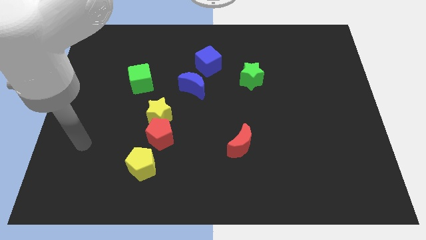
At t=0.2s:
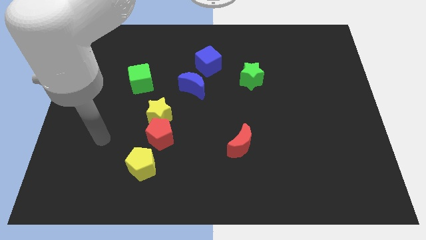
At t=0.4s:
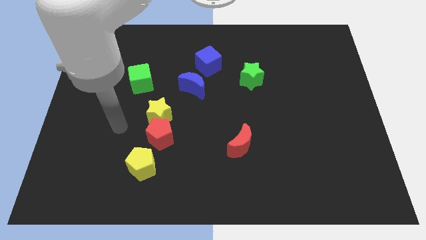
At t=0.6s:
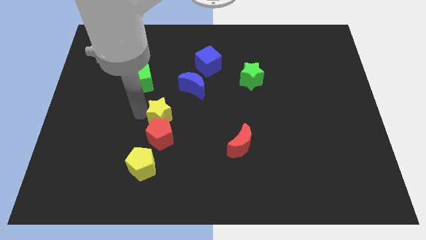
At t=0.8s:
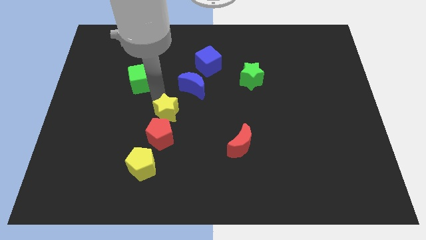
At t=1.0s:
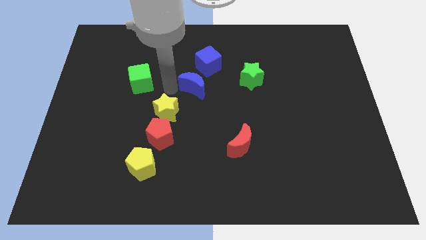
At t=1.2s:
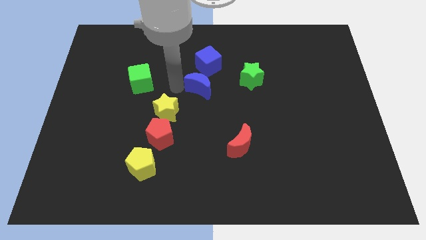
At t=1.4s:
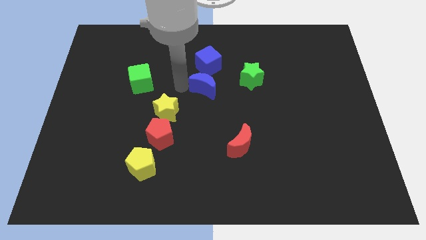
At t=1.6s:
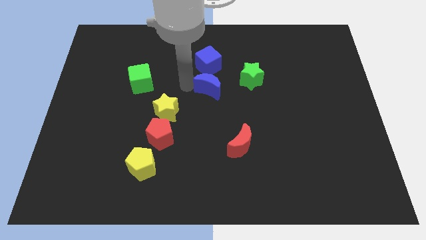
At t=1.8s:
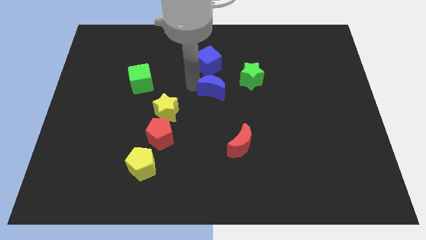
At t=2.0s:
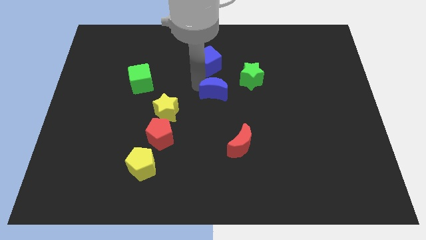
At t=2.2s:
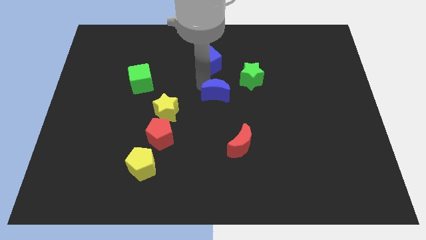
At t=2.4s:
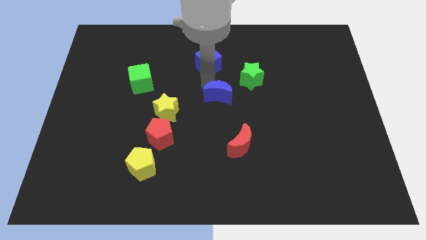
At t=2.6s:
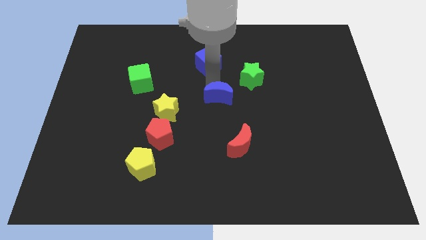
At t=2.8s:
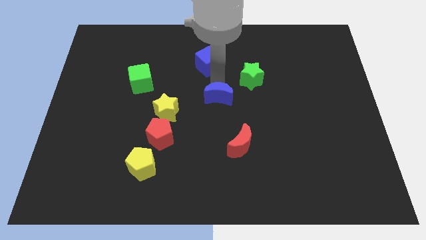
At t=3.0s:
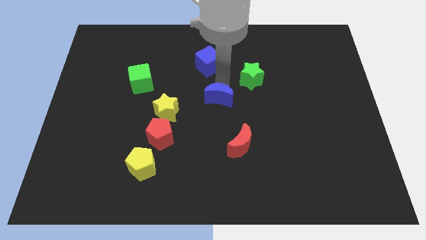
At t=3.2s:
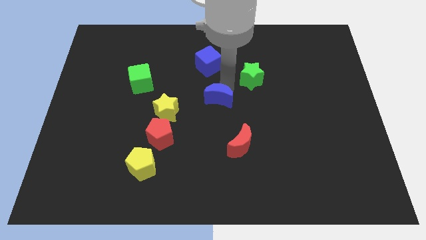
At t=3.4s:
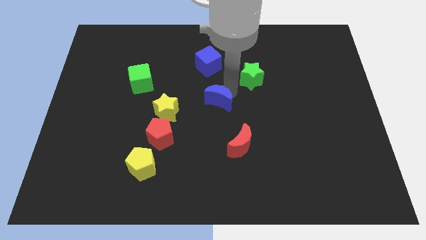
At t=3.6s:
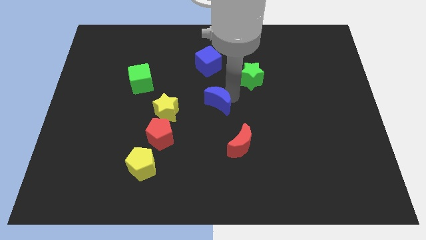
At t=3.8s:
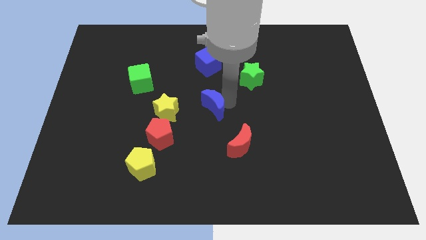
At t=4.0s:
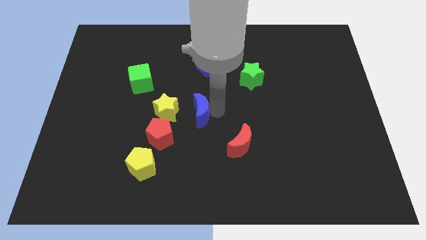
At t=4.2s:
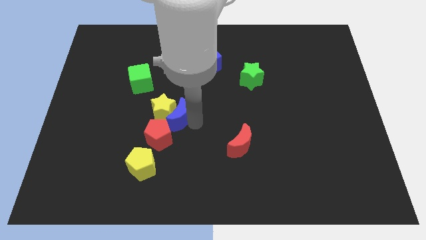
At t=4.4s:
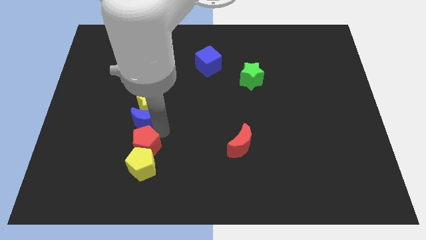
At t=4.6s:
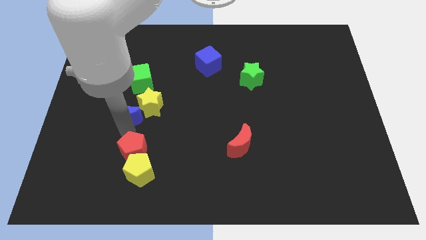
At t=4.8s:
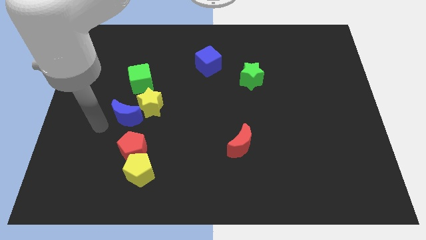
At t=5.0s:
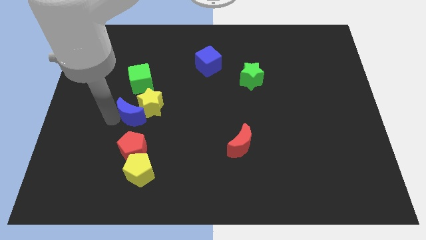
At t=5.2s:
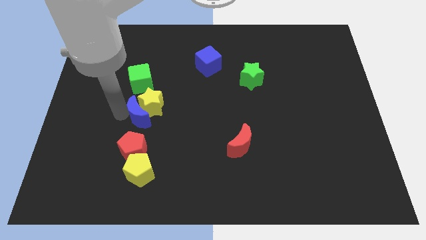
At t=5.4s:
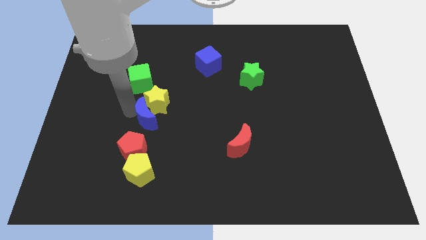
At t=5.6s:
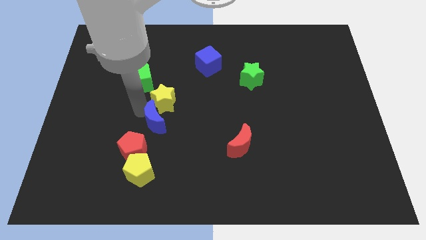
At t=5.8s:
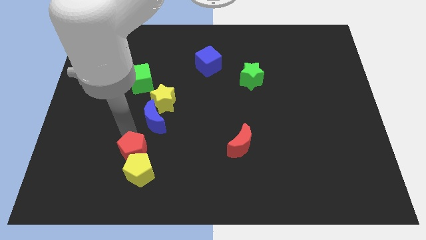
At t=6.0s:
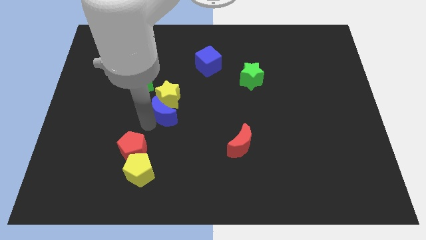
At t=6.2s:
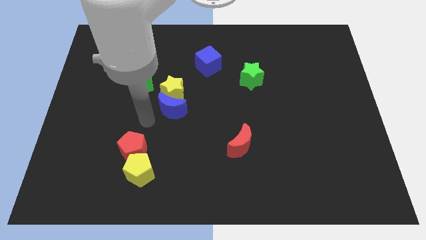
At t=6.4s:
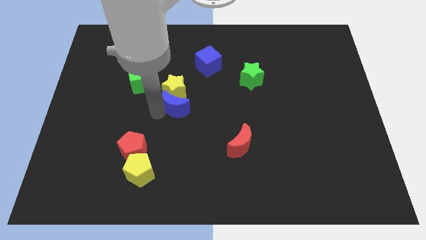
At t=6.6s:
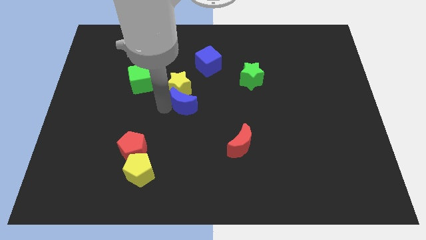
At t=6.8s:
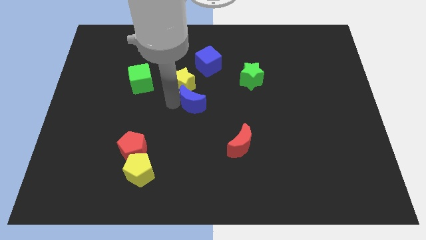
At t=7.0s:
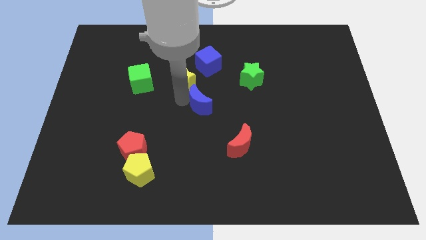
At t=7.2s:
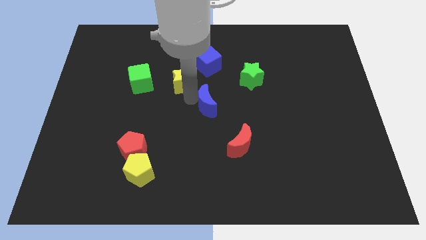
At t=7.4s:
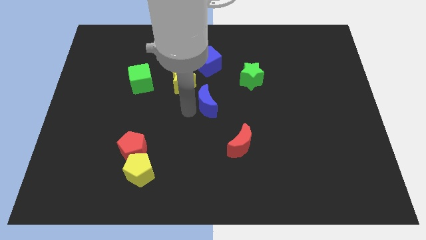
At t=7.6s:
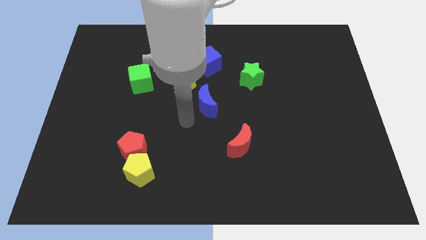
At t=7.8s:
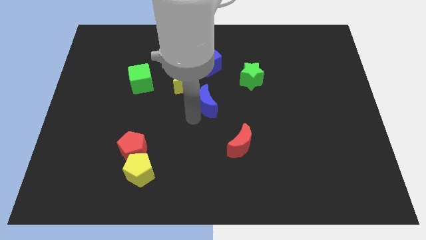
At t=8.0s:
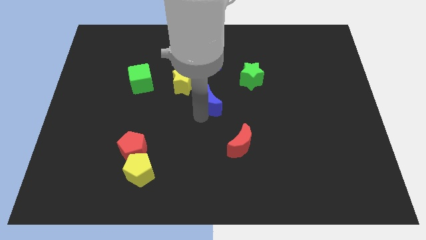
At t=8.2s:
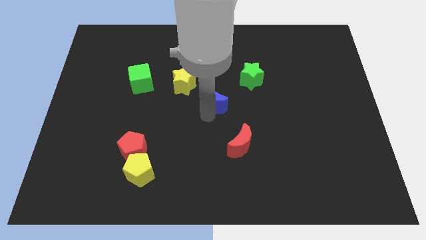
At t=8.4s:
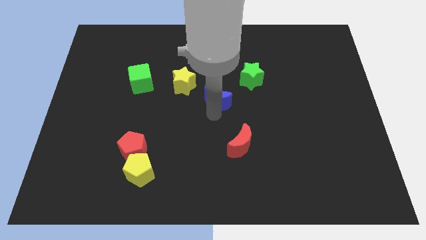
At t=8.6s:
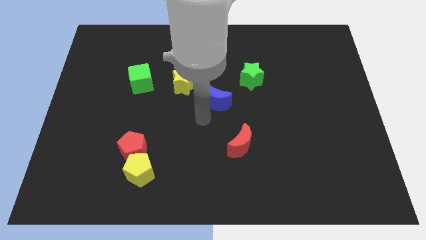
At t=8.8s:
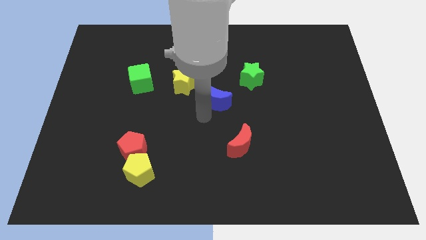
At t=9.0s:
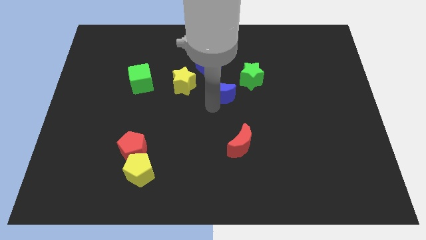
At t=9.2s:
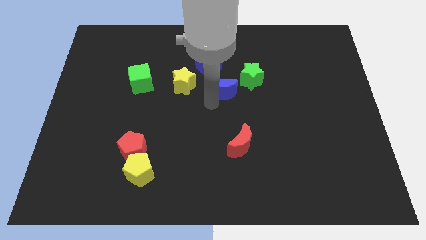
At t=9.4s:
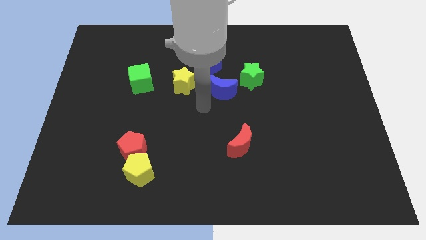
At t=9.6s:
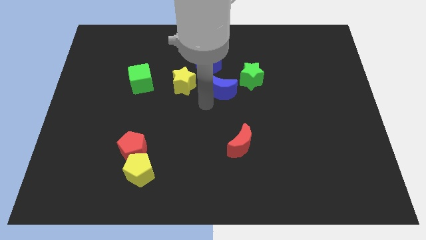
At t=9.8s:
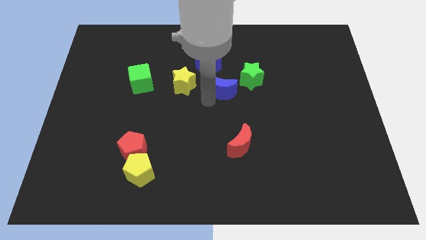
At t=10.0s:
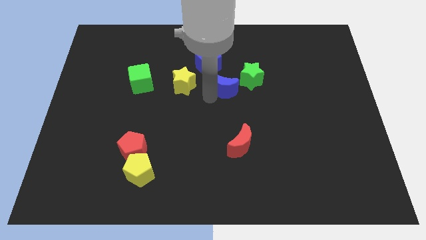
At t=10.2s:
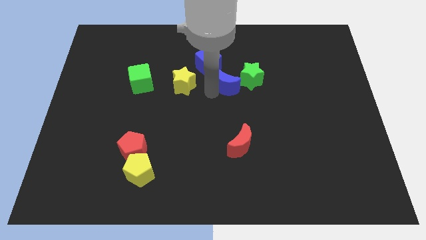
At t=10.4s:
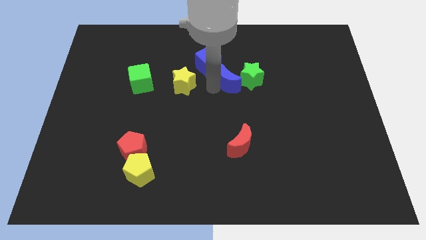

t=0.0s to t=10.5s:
put the blue moon next to the green star

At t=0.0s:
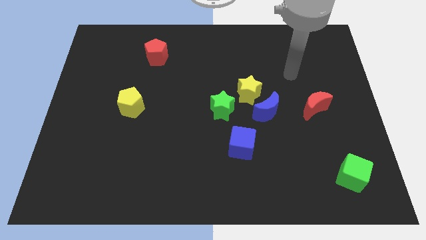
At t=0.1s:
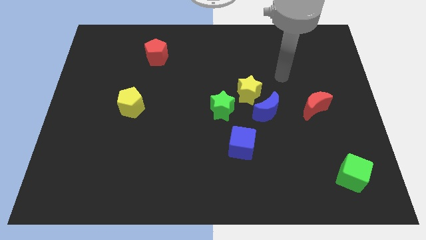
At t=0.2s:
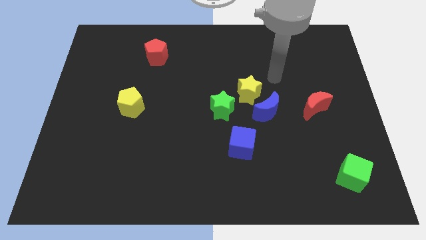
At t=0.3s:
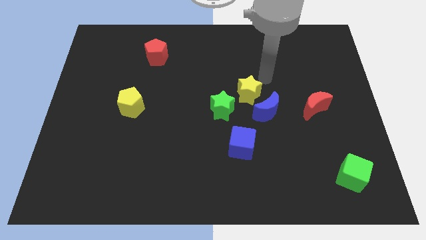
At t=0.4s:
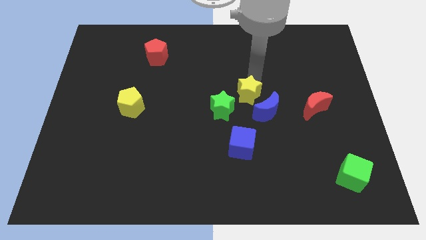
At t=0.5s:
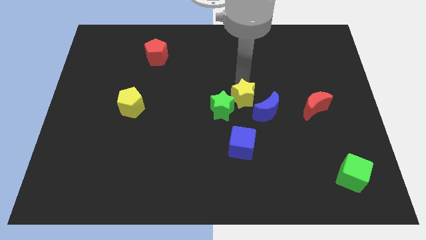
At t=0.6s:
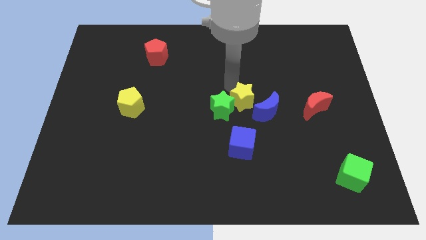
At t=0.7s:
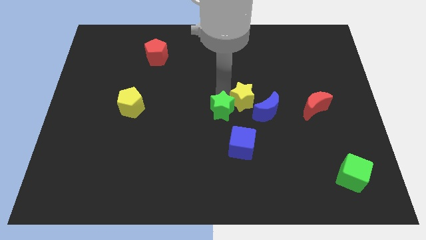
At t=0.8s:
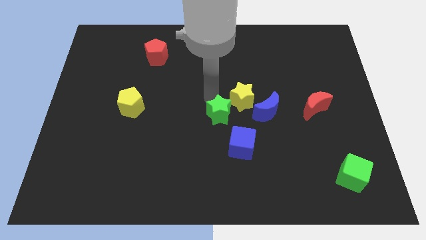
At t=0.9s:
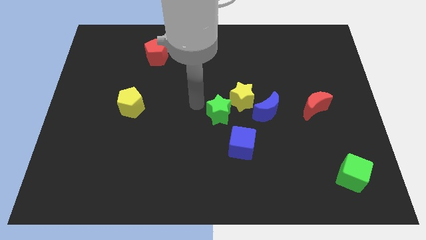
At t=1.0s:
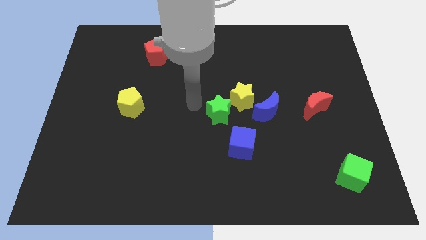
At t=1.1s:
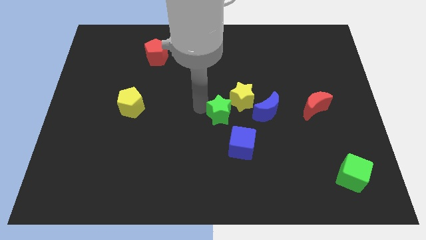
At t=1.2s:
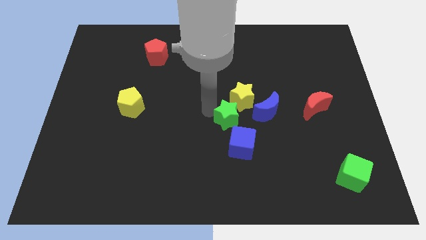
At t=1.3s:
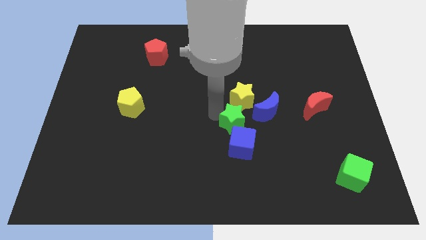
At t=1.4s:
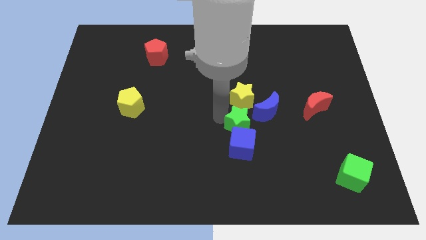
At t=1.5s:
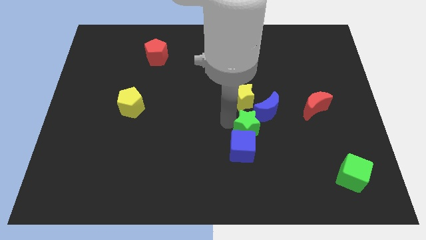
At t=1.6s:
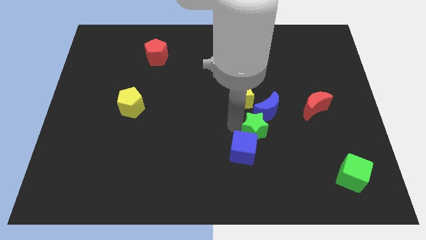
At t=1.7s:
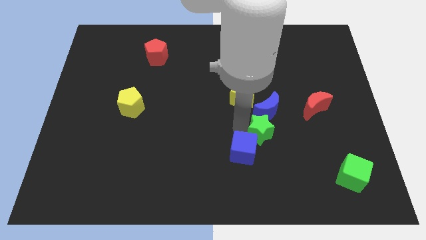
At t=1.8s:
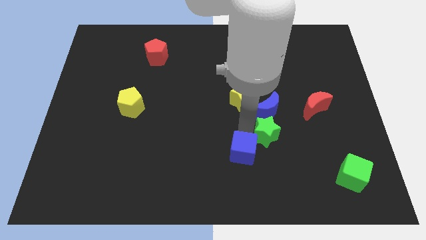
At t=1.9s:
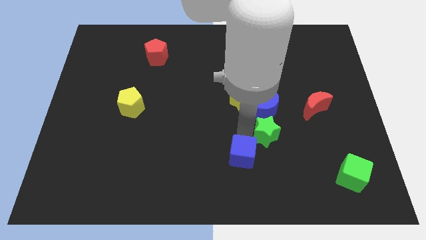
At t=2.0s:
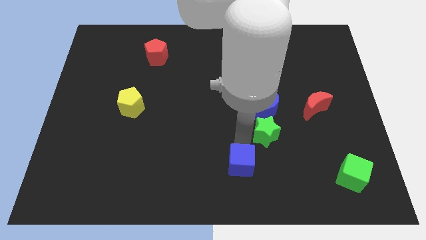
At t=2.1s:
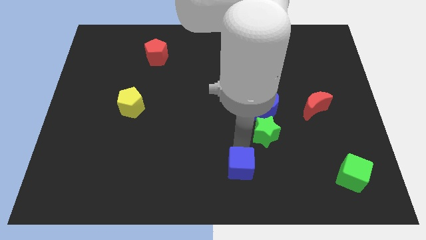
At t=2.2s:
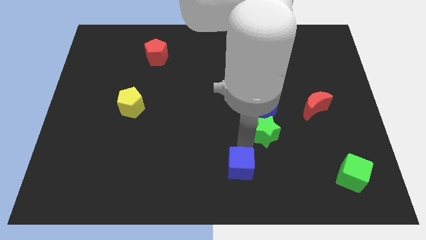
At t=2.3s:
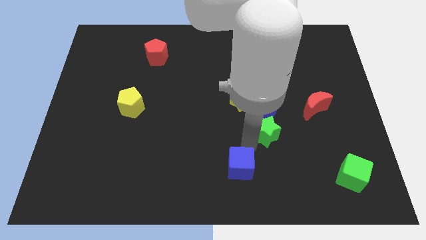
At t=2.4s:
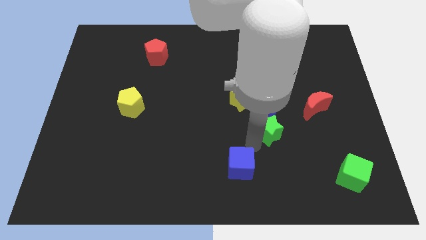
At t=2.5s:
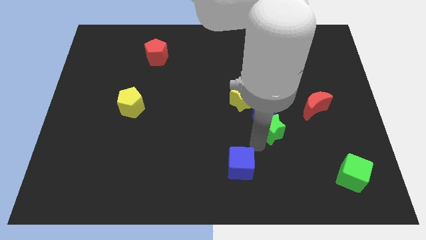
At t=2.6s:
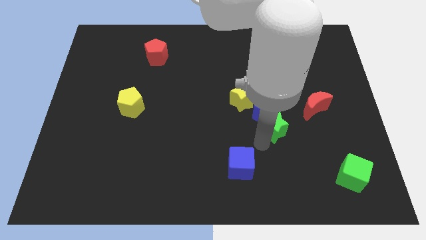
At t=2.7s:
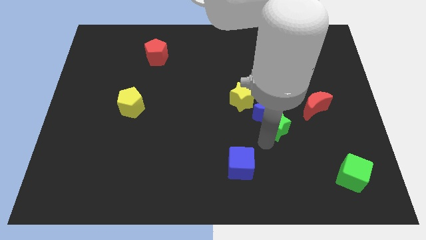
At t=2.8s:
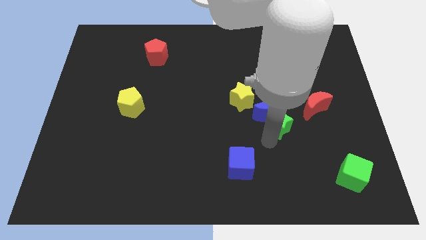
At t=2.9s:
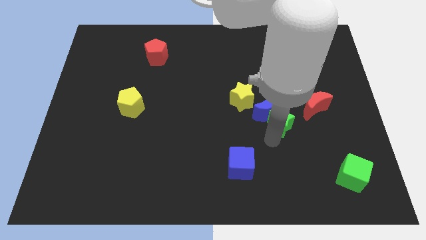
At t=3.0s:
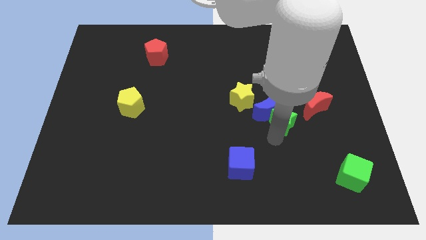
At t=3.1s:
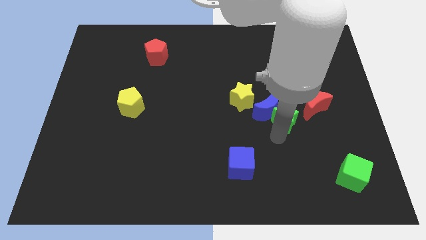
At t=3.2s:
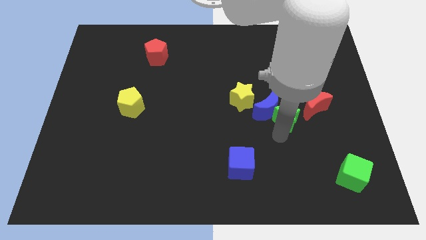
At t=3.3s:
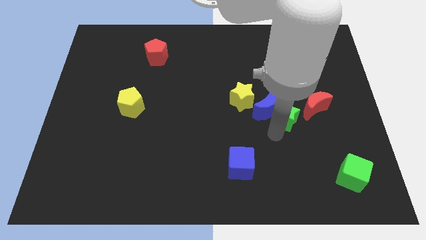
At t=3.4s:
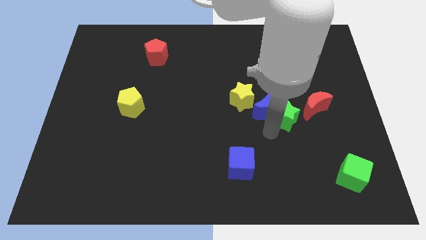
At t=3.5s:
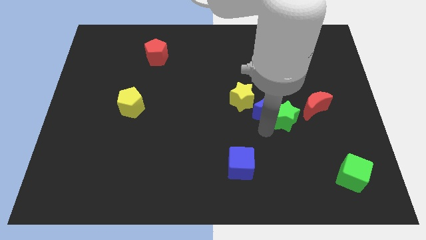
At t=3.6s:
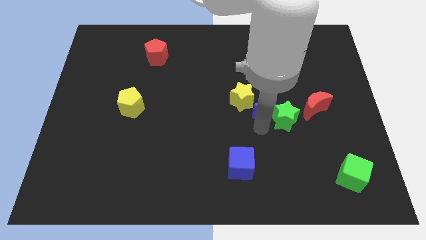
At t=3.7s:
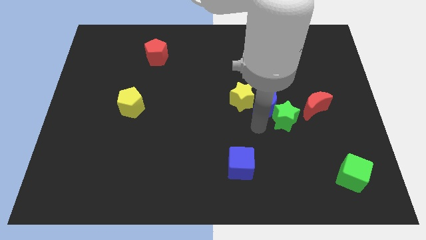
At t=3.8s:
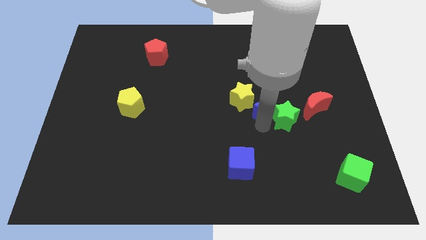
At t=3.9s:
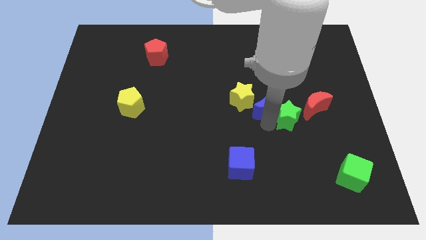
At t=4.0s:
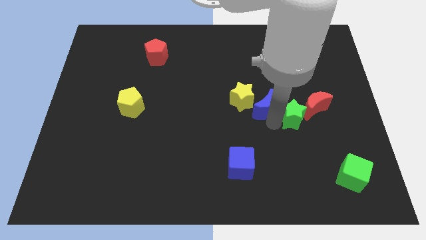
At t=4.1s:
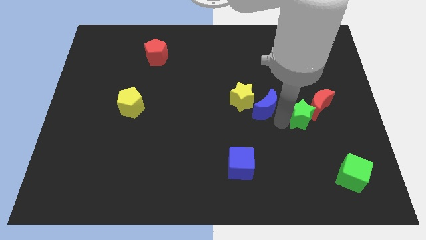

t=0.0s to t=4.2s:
slide the green star next to the red moon
